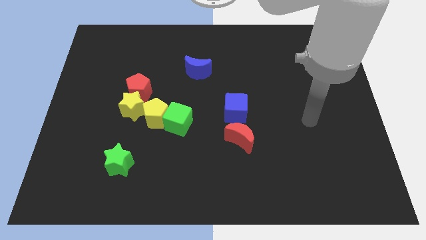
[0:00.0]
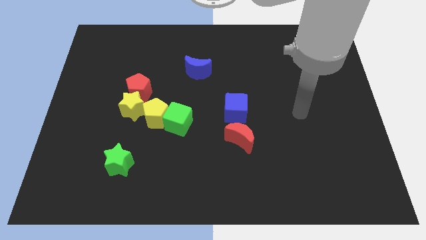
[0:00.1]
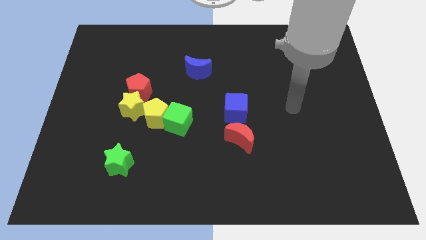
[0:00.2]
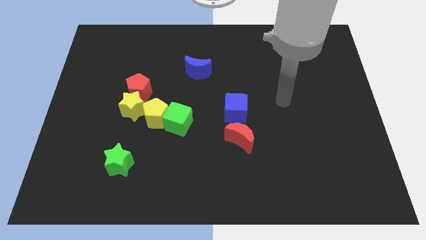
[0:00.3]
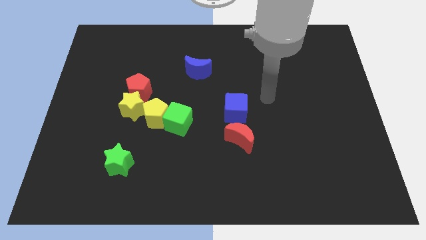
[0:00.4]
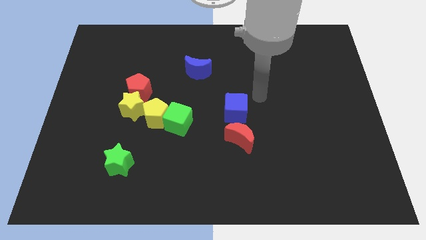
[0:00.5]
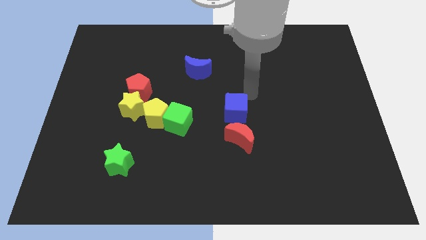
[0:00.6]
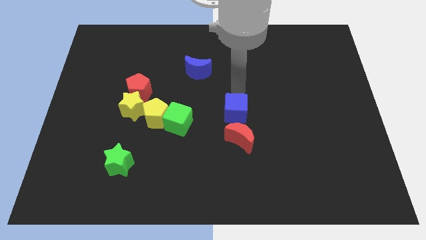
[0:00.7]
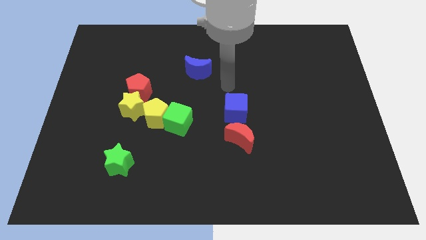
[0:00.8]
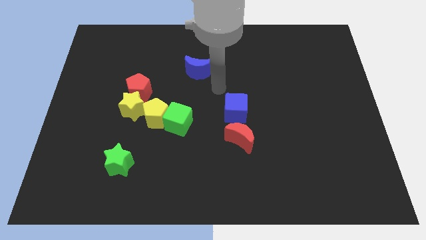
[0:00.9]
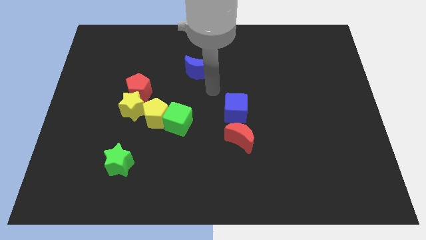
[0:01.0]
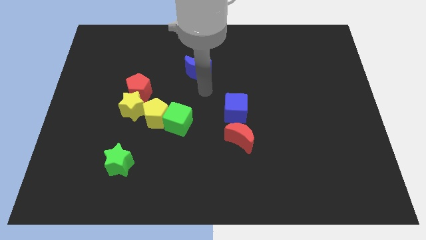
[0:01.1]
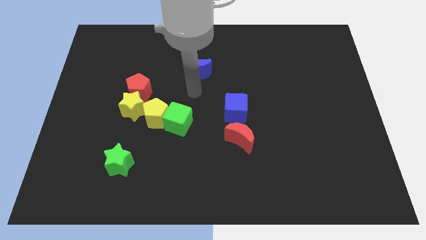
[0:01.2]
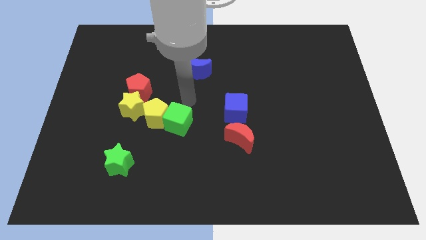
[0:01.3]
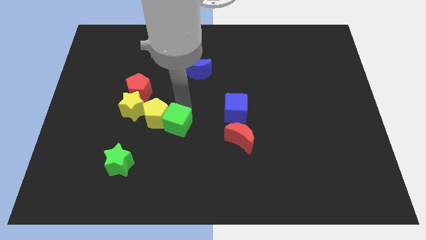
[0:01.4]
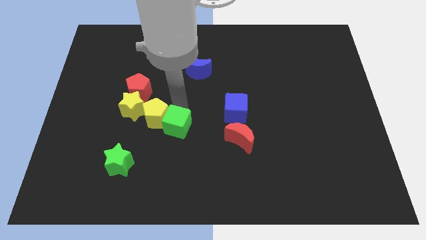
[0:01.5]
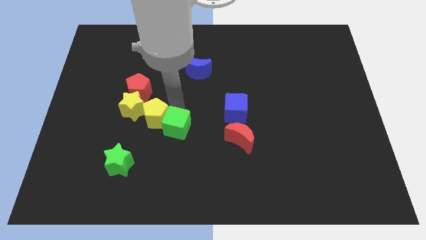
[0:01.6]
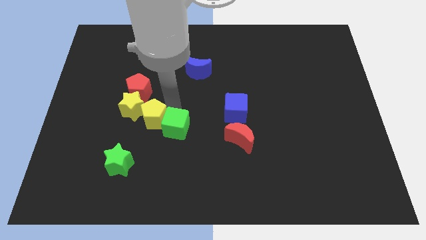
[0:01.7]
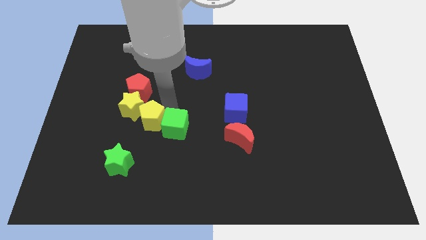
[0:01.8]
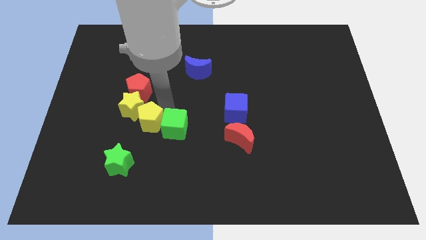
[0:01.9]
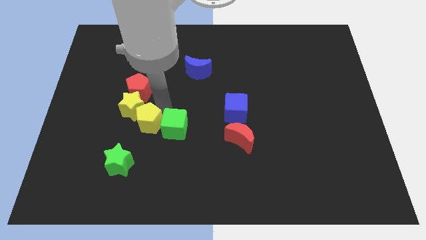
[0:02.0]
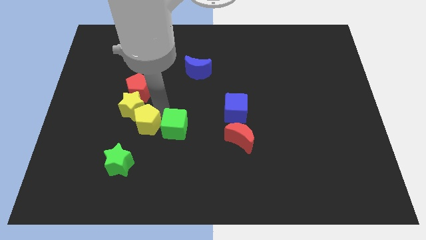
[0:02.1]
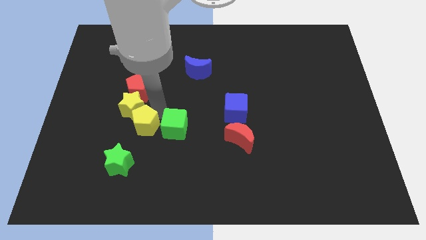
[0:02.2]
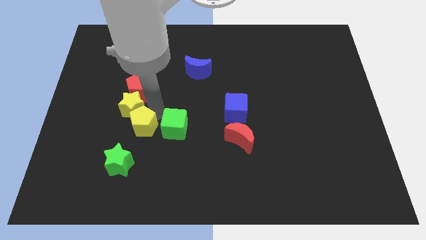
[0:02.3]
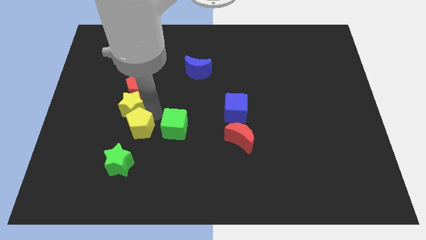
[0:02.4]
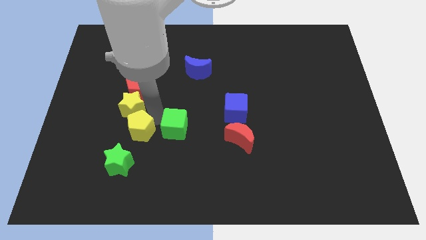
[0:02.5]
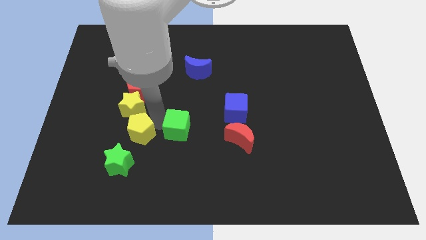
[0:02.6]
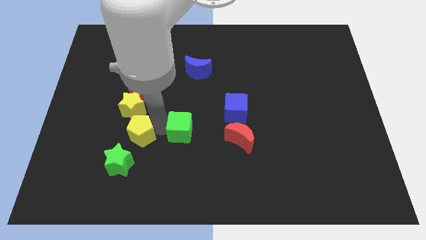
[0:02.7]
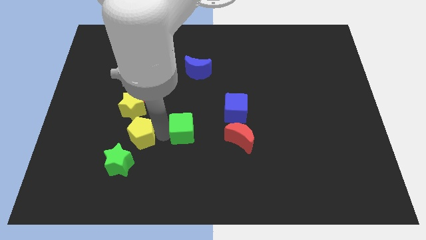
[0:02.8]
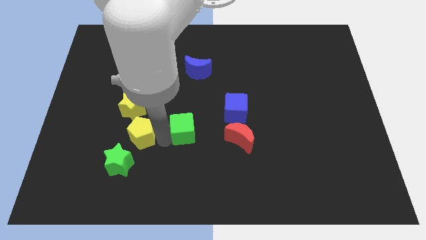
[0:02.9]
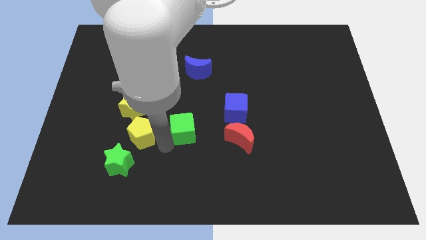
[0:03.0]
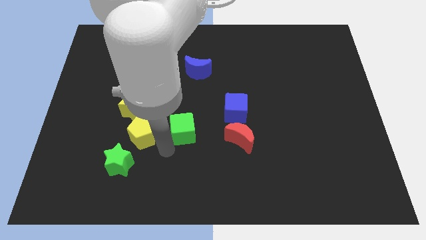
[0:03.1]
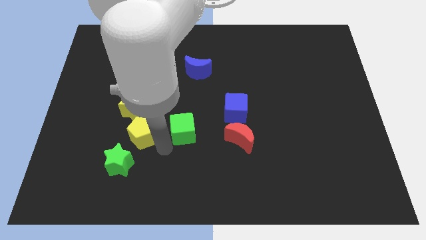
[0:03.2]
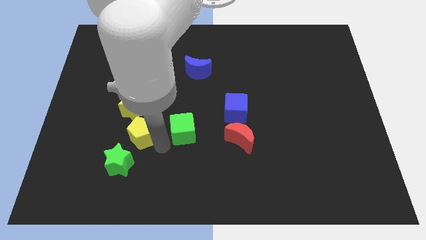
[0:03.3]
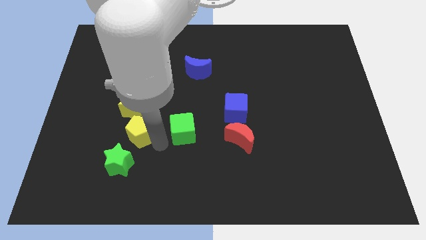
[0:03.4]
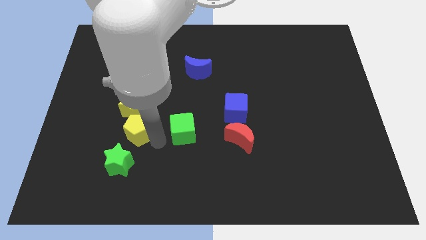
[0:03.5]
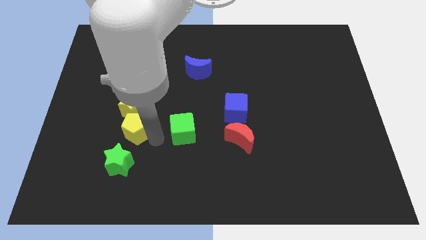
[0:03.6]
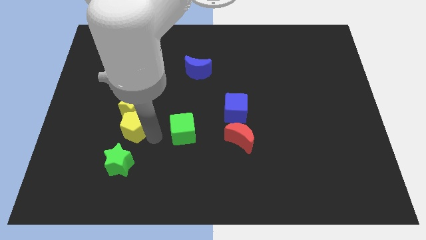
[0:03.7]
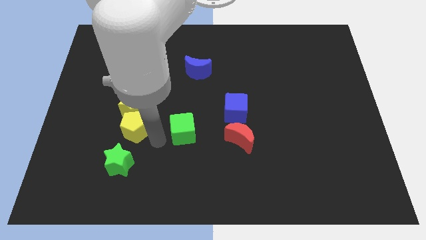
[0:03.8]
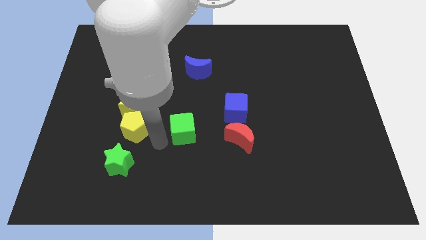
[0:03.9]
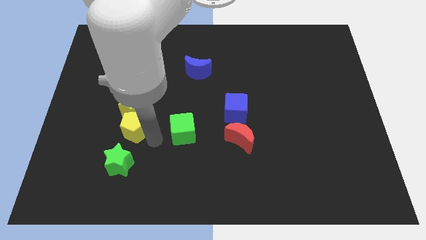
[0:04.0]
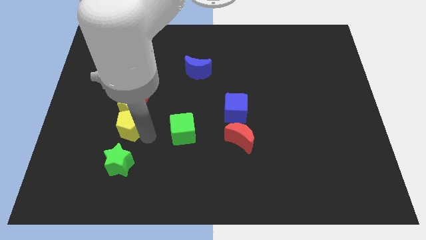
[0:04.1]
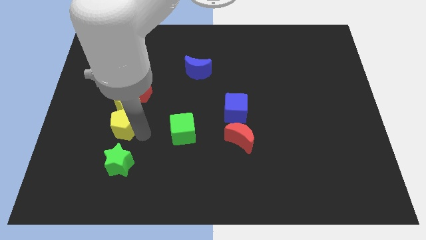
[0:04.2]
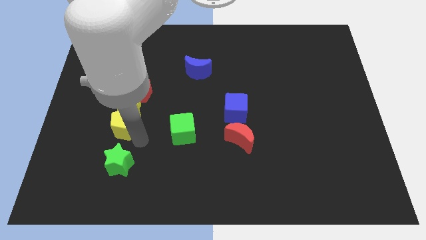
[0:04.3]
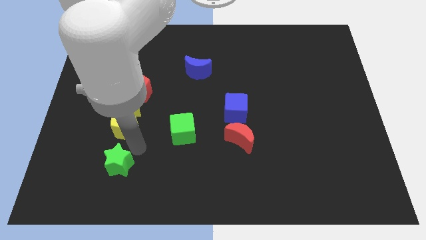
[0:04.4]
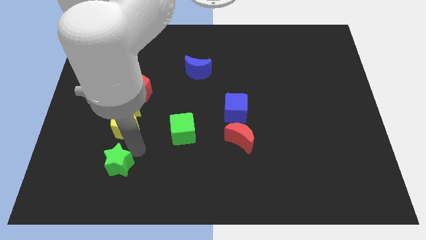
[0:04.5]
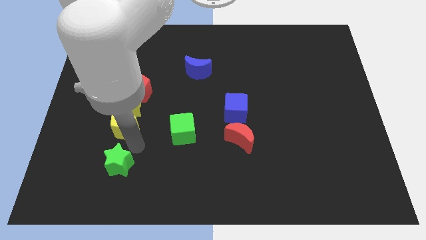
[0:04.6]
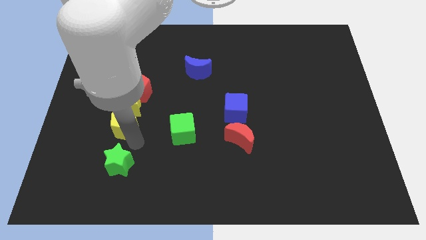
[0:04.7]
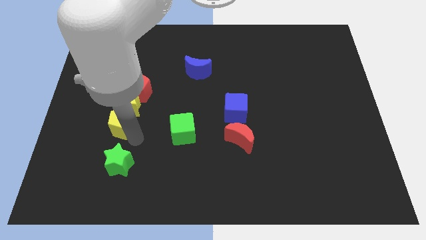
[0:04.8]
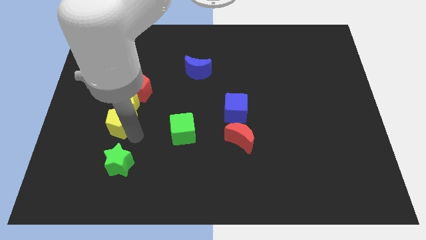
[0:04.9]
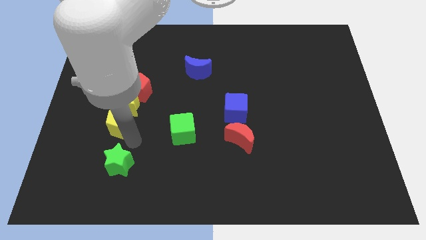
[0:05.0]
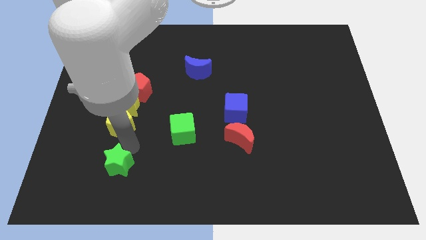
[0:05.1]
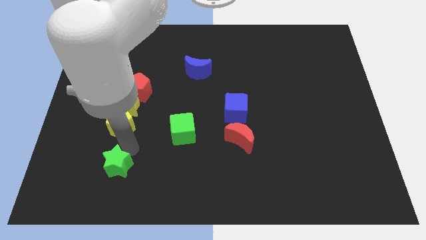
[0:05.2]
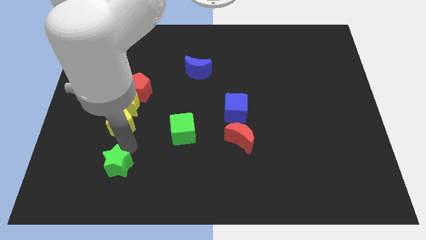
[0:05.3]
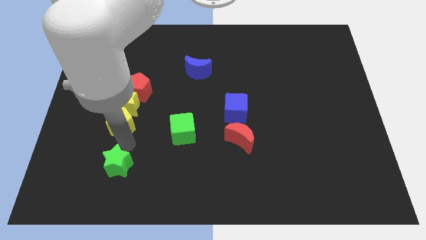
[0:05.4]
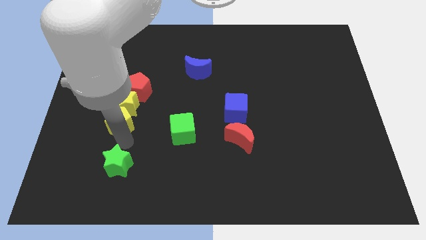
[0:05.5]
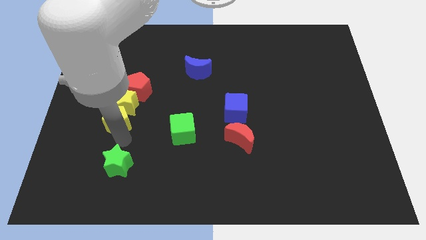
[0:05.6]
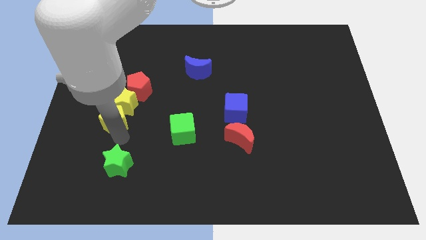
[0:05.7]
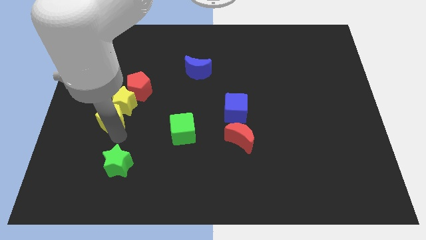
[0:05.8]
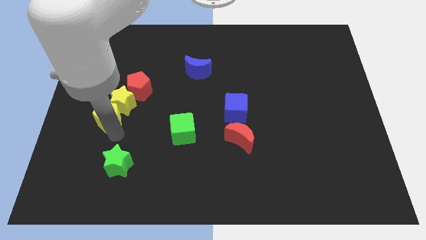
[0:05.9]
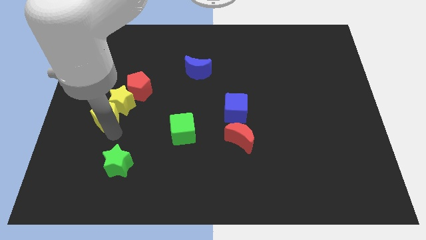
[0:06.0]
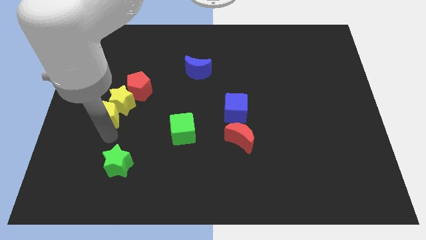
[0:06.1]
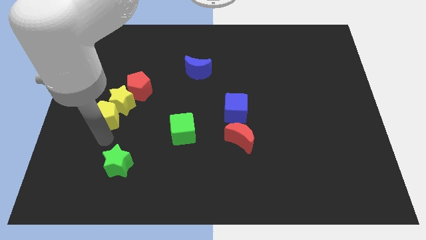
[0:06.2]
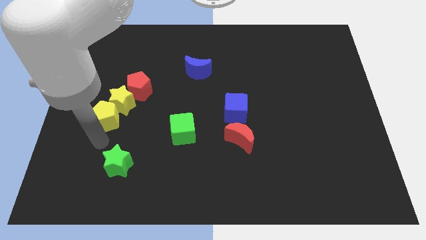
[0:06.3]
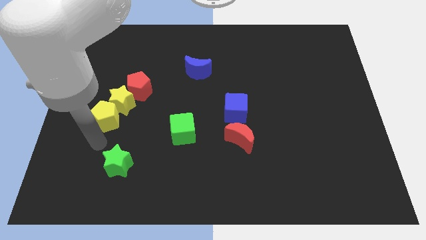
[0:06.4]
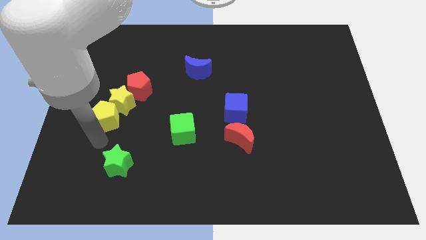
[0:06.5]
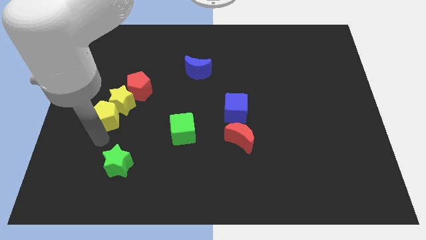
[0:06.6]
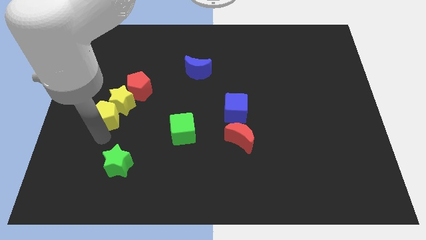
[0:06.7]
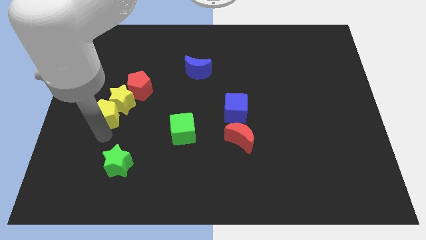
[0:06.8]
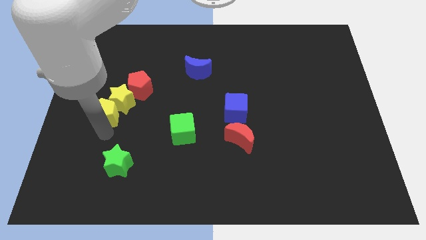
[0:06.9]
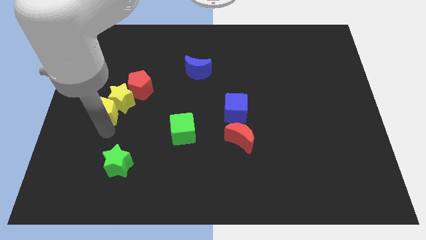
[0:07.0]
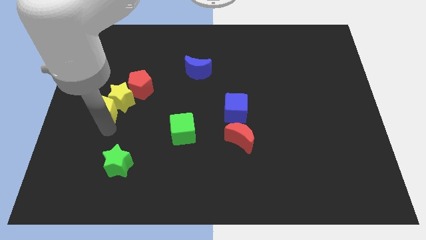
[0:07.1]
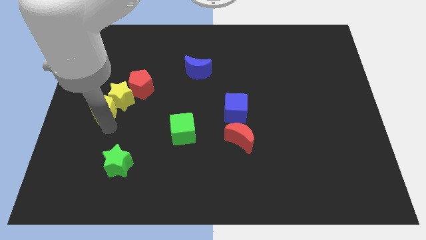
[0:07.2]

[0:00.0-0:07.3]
slightly slide the yellow pentagon upwards and then to the left

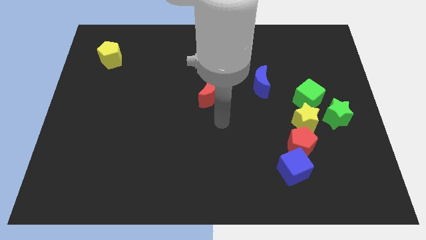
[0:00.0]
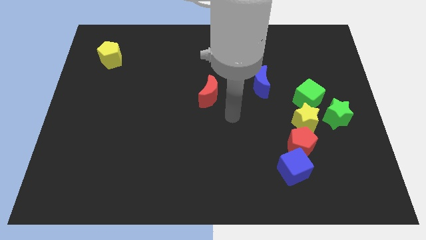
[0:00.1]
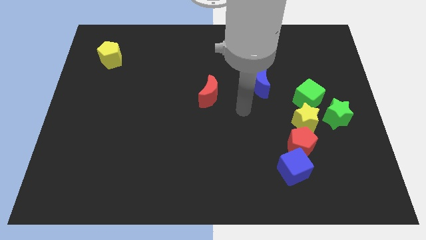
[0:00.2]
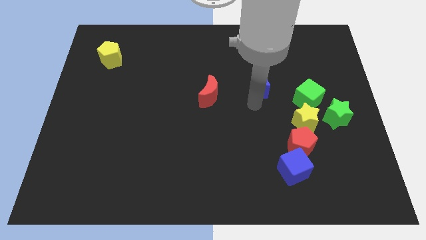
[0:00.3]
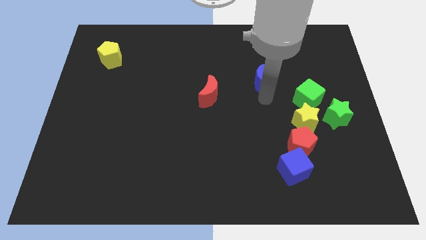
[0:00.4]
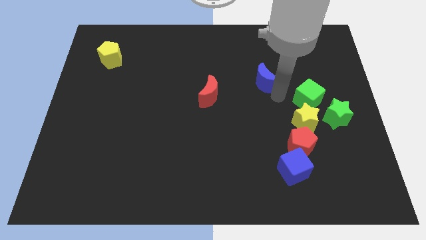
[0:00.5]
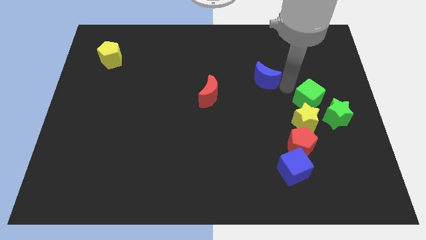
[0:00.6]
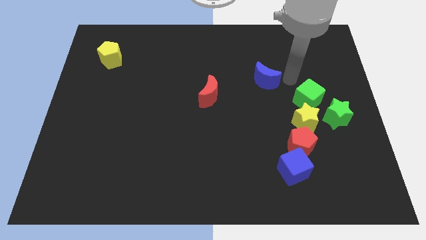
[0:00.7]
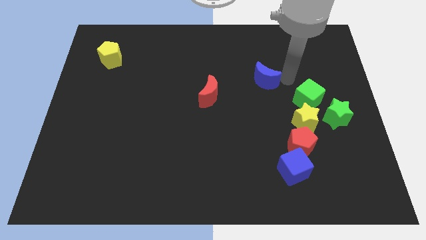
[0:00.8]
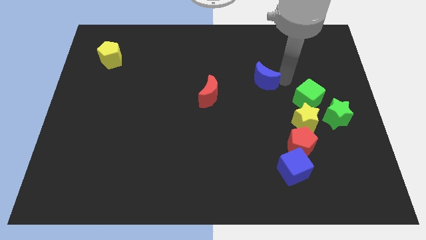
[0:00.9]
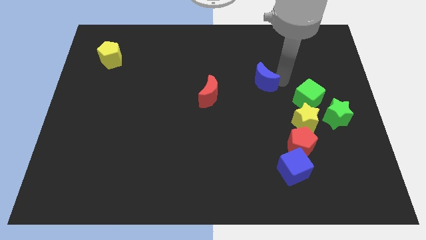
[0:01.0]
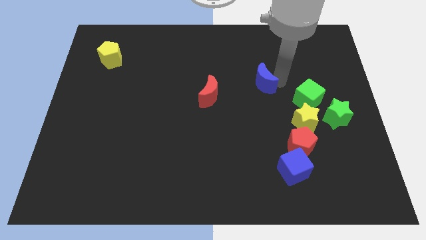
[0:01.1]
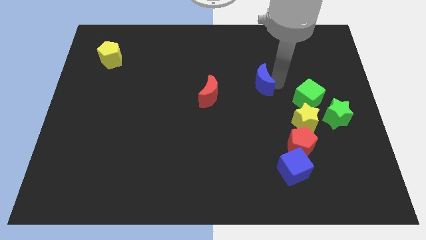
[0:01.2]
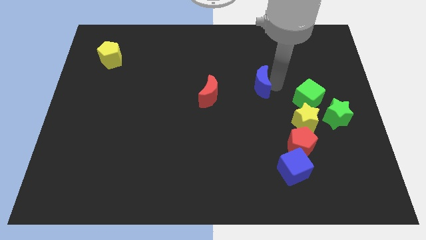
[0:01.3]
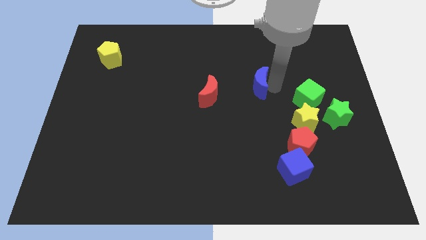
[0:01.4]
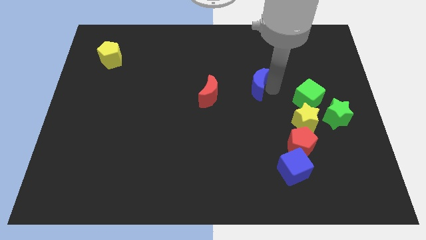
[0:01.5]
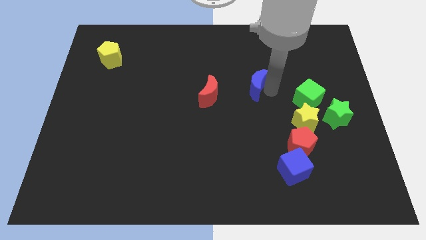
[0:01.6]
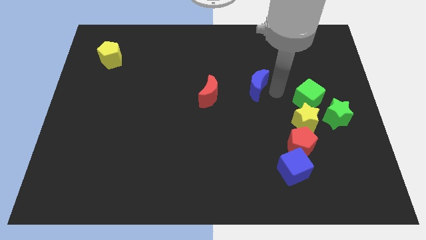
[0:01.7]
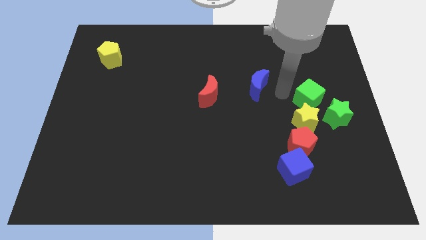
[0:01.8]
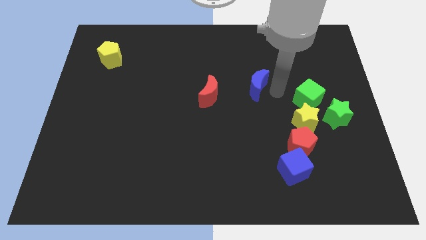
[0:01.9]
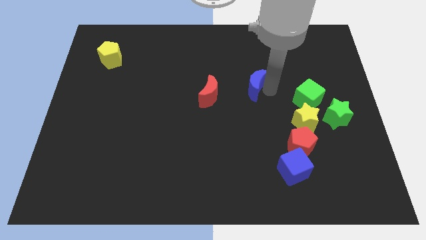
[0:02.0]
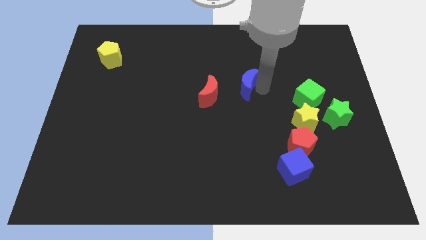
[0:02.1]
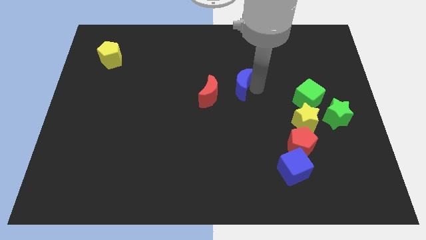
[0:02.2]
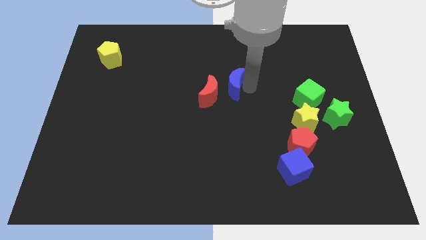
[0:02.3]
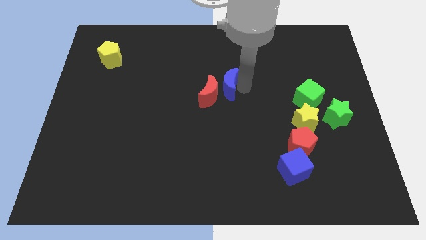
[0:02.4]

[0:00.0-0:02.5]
push the blue moon a little left
